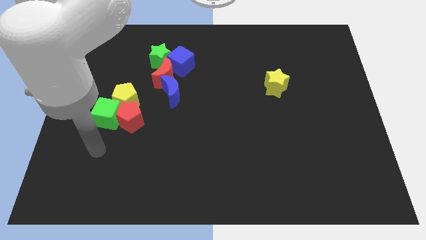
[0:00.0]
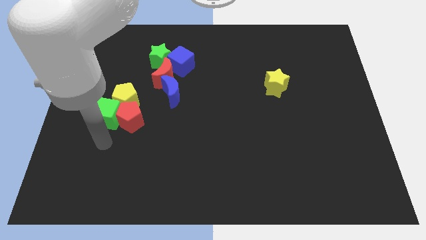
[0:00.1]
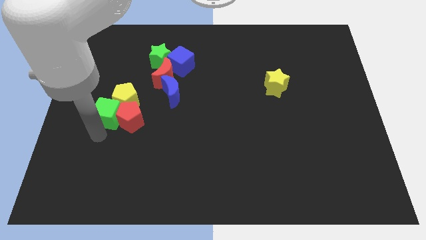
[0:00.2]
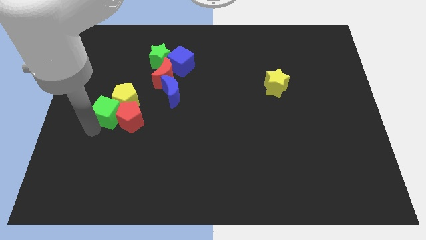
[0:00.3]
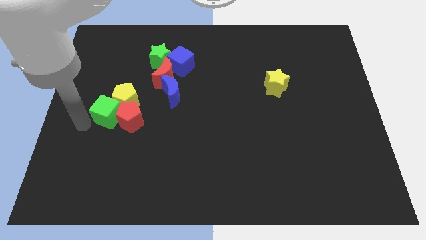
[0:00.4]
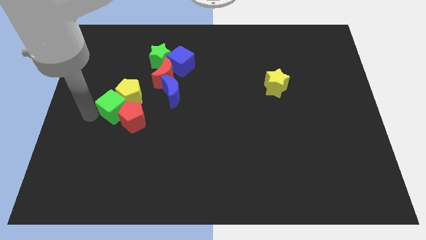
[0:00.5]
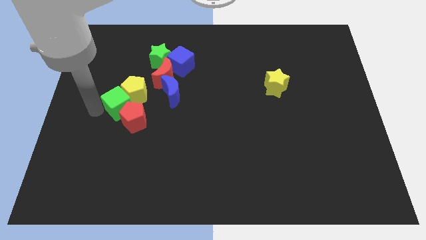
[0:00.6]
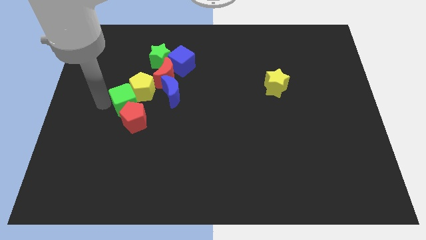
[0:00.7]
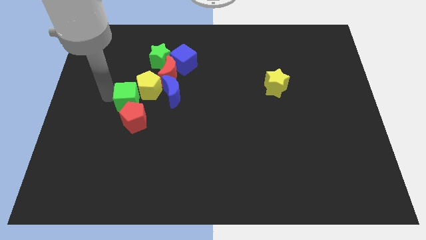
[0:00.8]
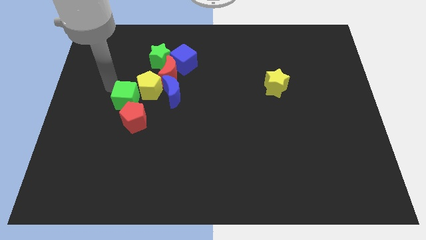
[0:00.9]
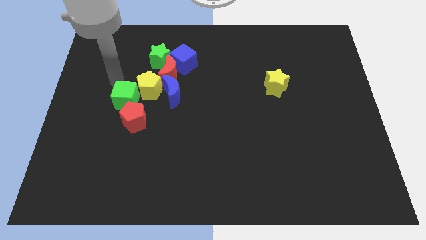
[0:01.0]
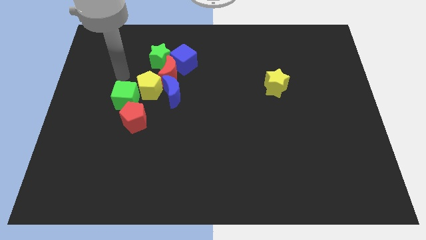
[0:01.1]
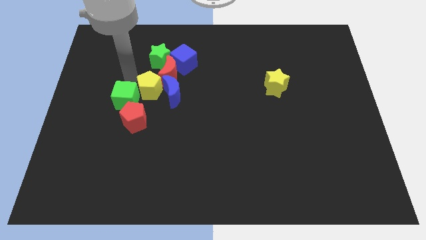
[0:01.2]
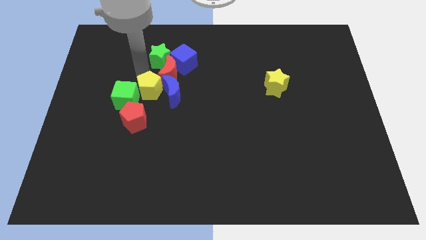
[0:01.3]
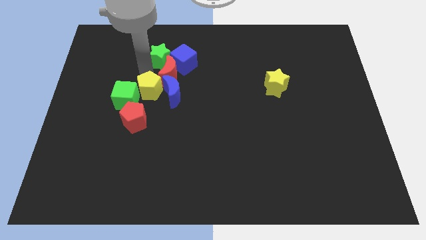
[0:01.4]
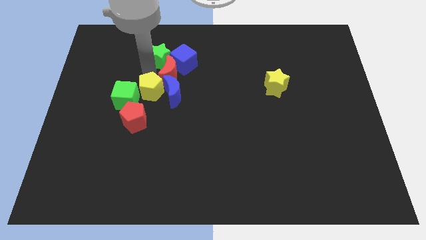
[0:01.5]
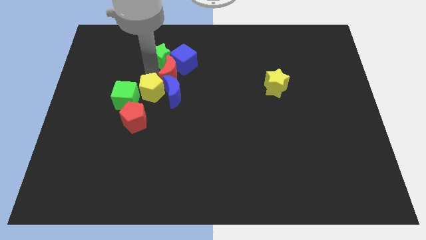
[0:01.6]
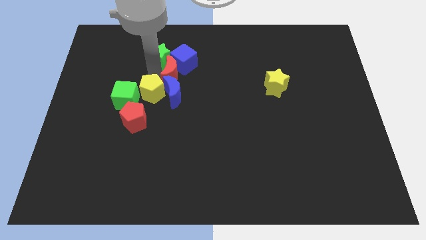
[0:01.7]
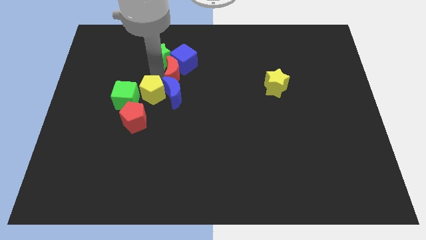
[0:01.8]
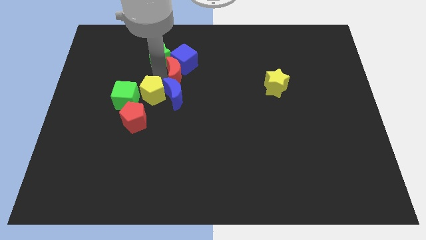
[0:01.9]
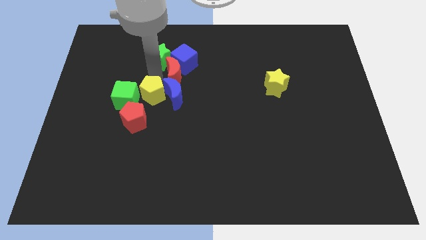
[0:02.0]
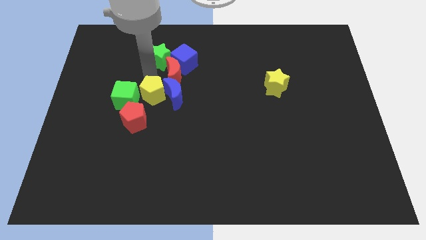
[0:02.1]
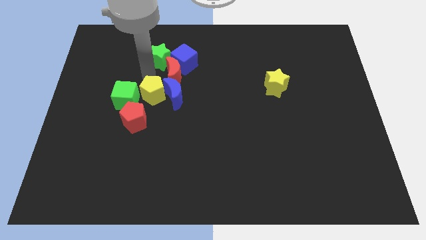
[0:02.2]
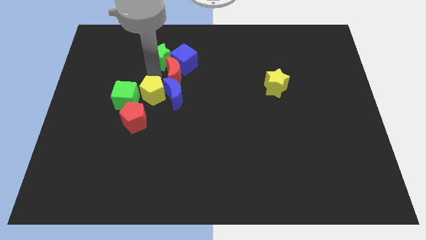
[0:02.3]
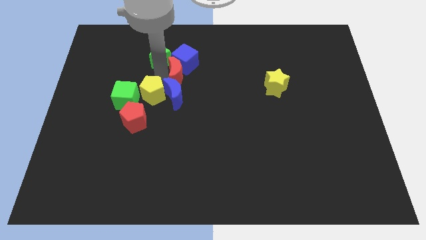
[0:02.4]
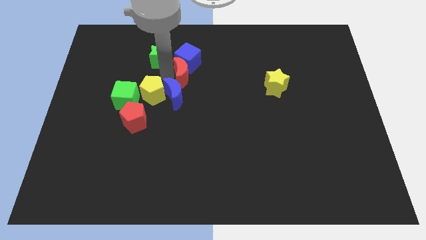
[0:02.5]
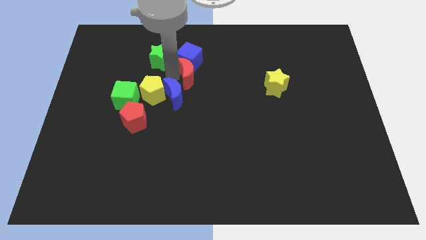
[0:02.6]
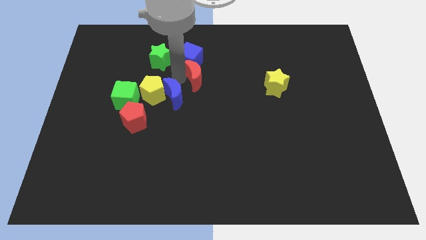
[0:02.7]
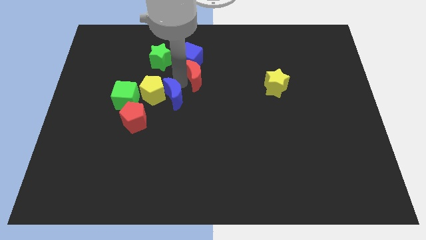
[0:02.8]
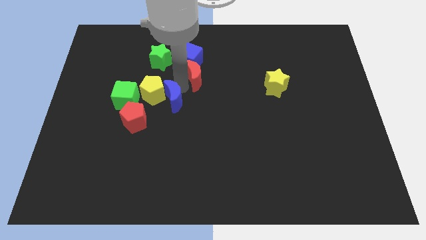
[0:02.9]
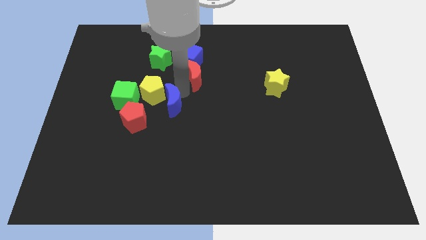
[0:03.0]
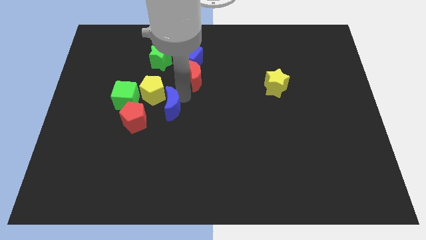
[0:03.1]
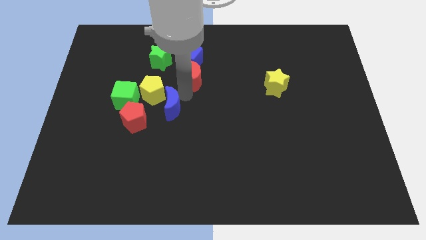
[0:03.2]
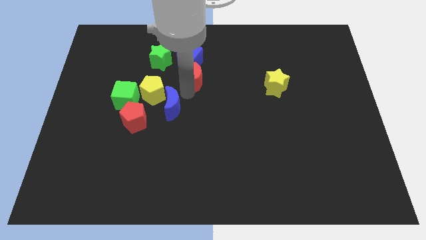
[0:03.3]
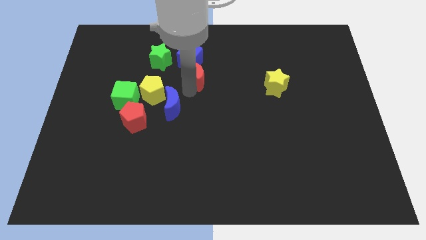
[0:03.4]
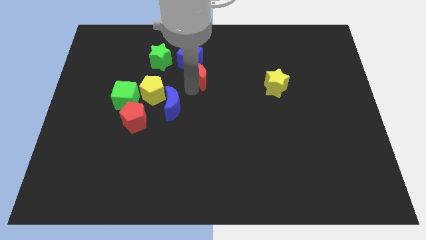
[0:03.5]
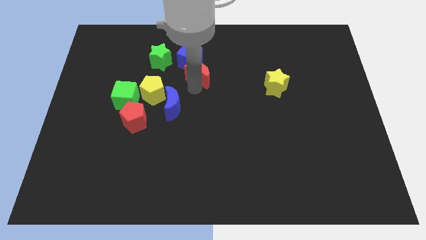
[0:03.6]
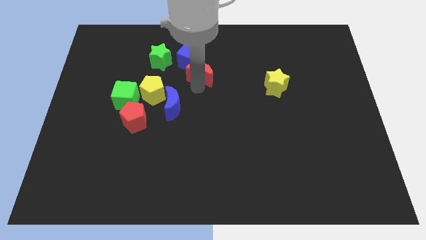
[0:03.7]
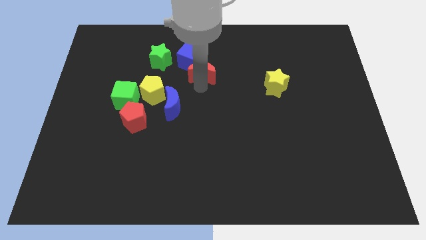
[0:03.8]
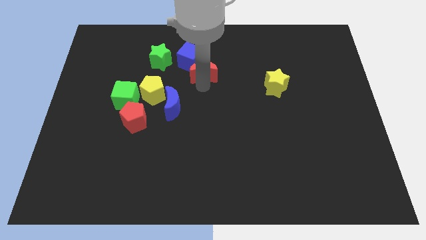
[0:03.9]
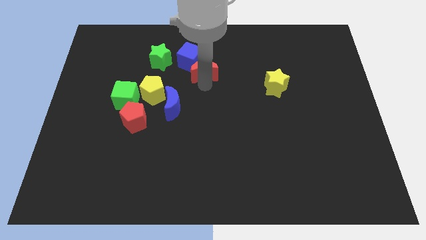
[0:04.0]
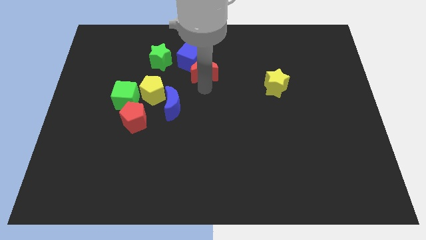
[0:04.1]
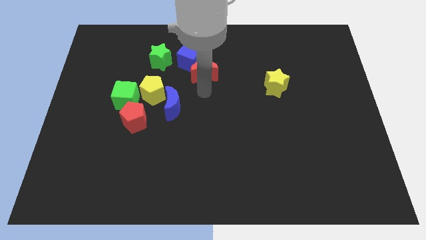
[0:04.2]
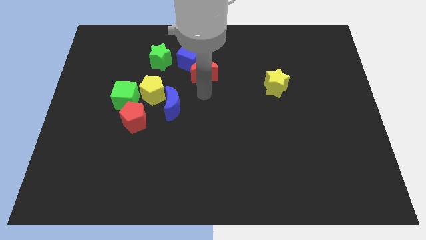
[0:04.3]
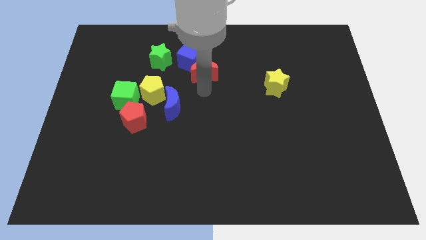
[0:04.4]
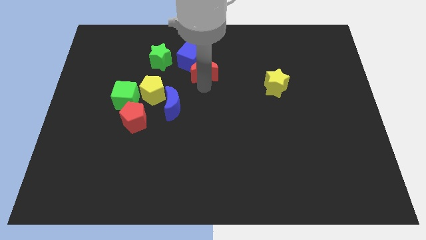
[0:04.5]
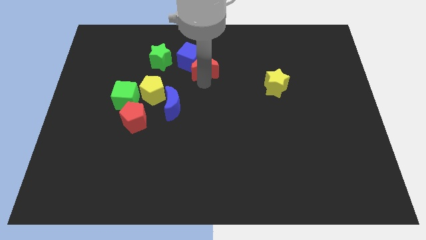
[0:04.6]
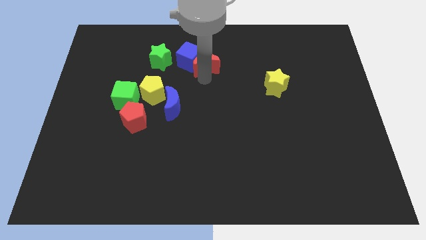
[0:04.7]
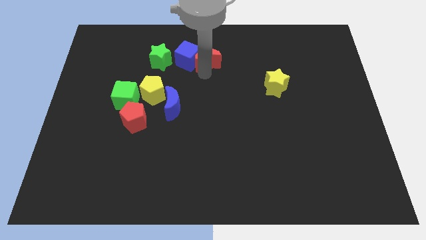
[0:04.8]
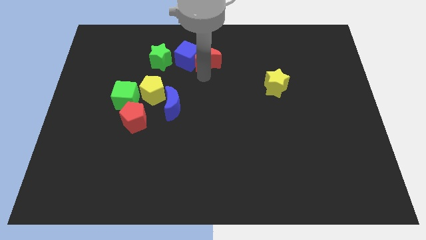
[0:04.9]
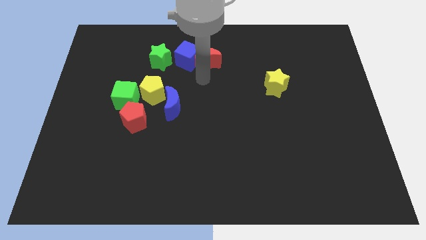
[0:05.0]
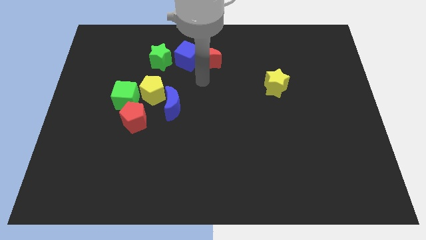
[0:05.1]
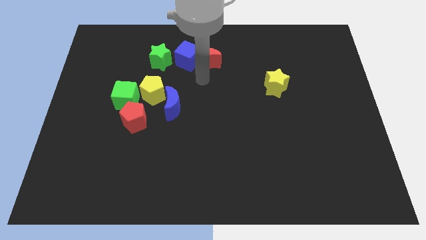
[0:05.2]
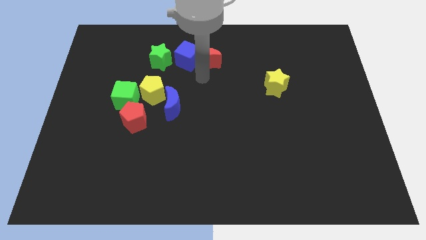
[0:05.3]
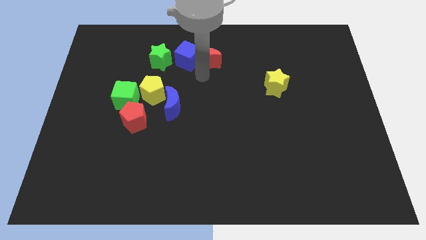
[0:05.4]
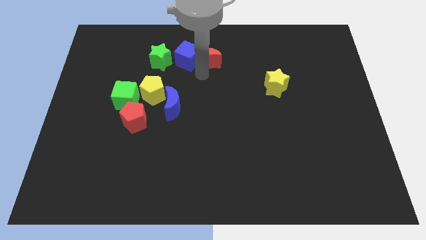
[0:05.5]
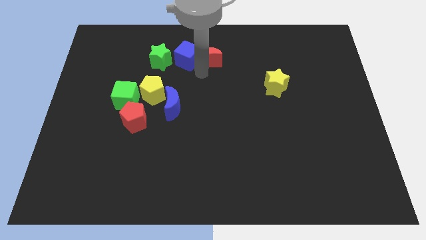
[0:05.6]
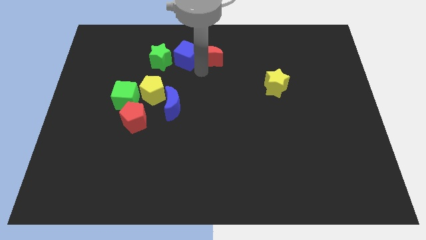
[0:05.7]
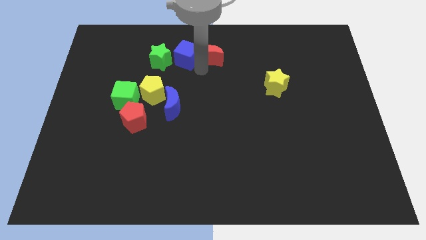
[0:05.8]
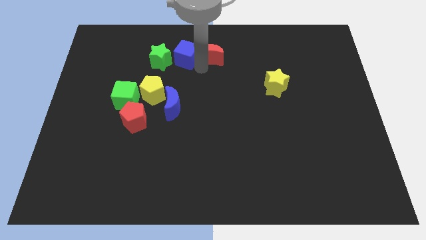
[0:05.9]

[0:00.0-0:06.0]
move the red moon to the top side
